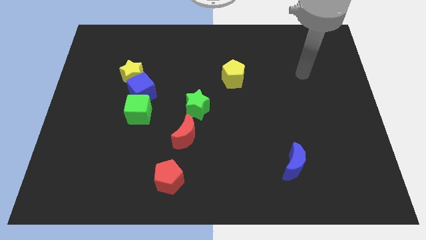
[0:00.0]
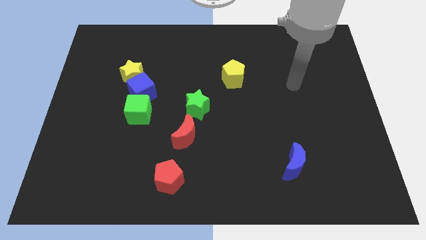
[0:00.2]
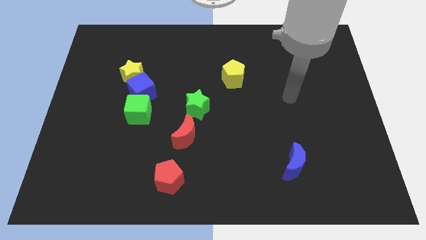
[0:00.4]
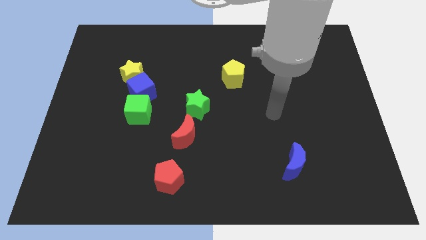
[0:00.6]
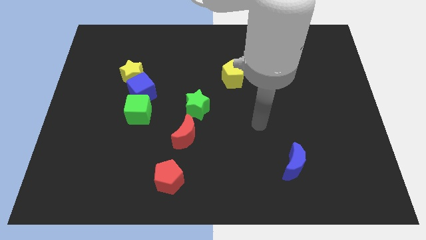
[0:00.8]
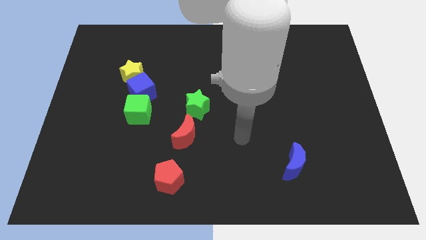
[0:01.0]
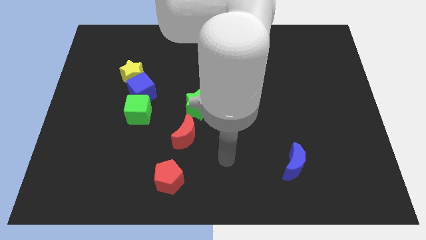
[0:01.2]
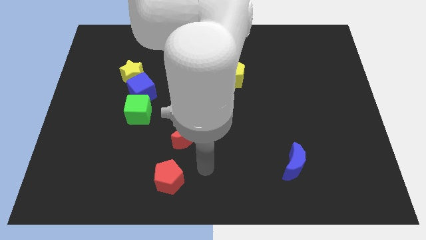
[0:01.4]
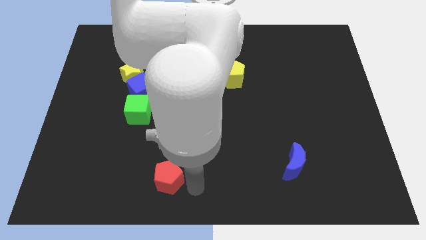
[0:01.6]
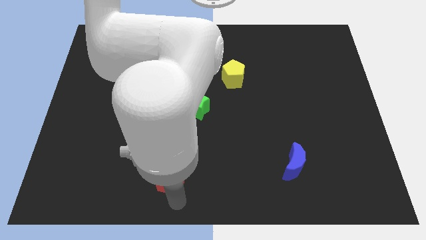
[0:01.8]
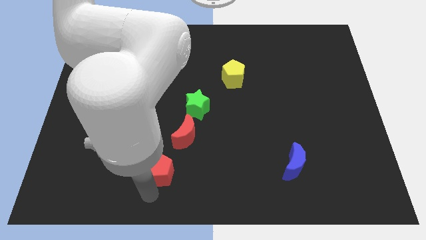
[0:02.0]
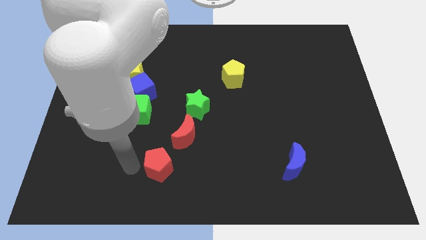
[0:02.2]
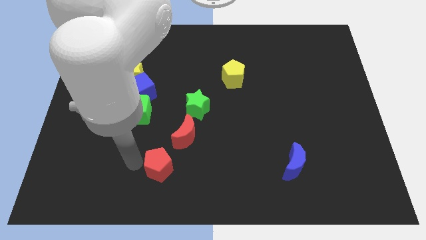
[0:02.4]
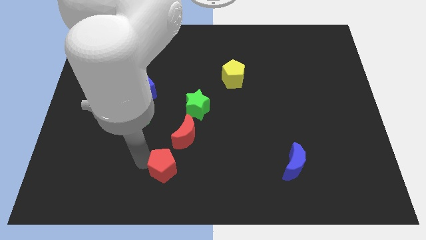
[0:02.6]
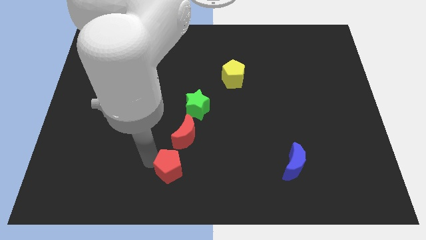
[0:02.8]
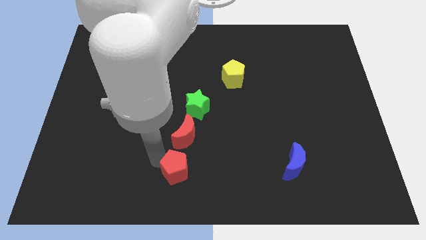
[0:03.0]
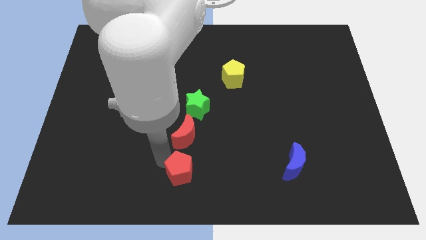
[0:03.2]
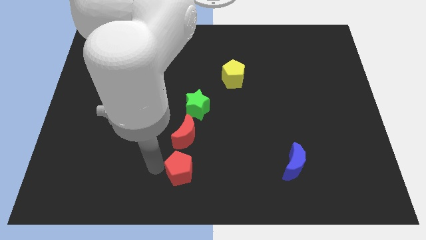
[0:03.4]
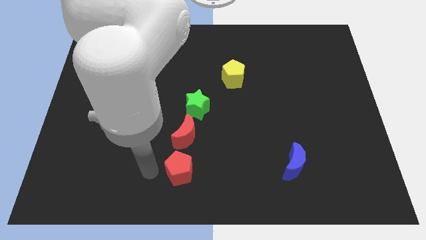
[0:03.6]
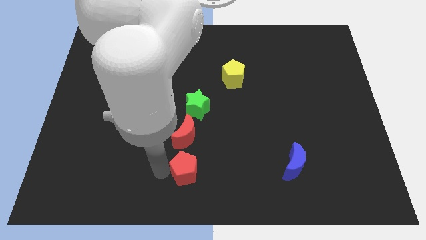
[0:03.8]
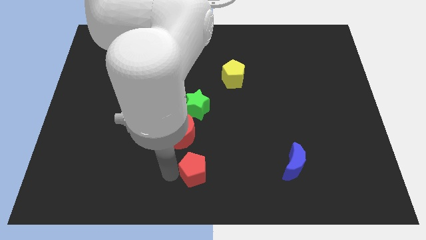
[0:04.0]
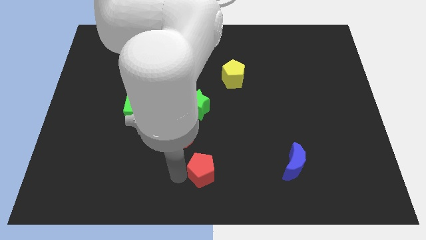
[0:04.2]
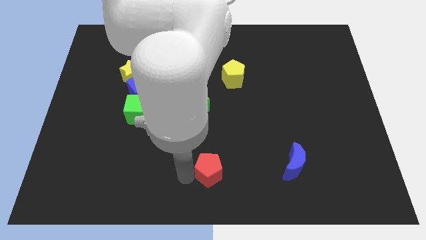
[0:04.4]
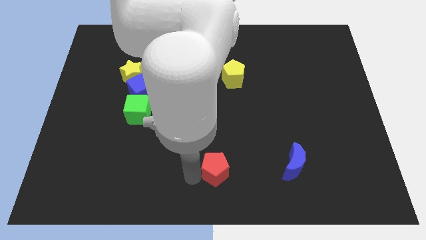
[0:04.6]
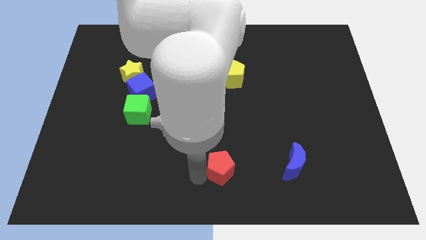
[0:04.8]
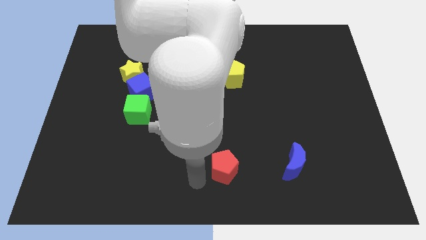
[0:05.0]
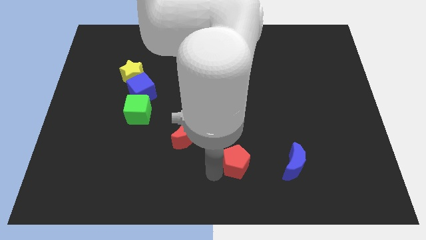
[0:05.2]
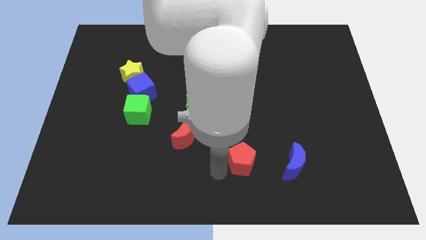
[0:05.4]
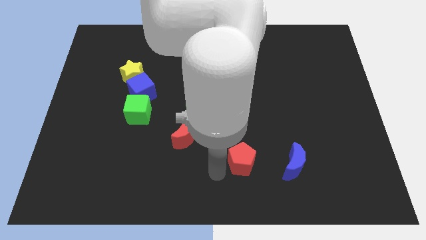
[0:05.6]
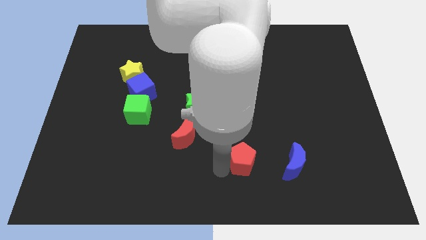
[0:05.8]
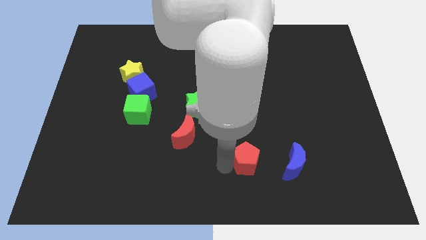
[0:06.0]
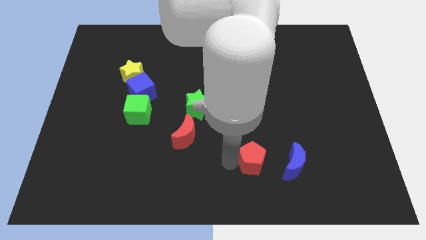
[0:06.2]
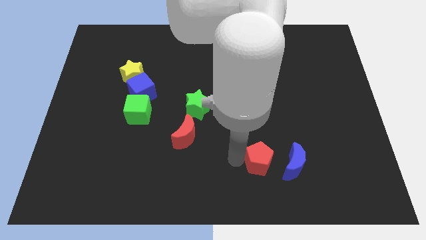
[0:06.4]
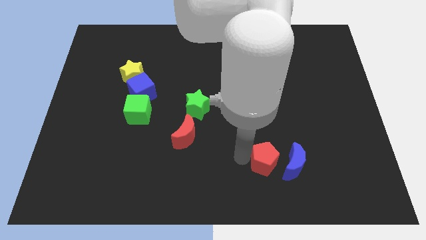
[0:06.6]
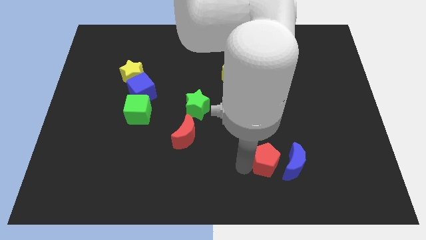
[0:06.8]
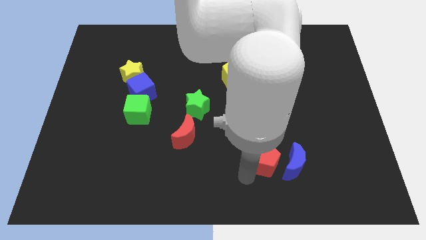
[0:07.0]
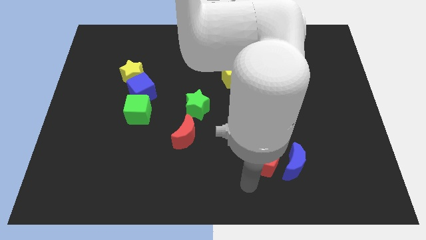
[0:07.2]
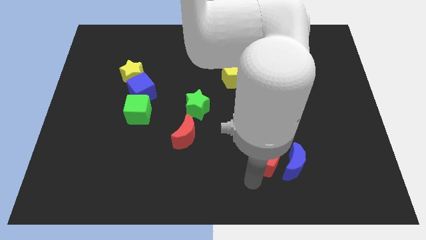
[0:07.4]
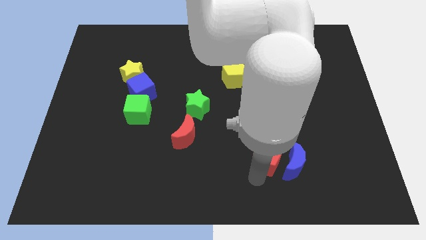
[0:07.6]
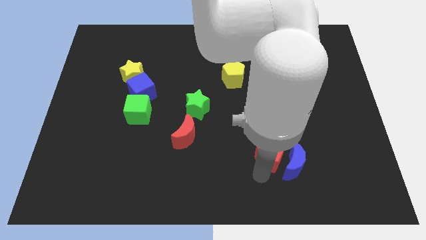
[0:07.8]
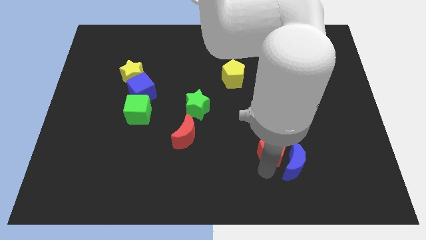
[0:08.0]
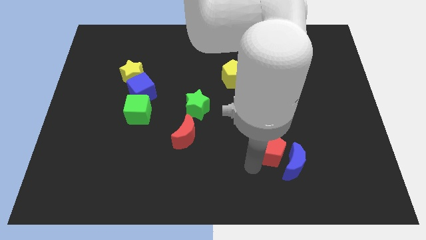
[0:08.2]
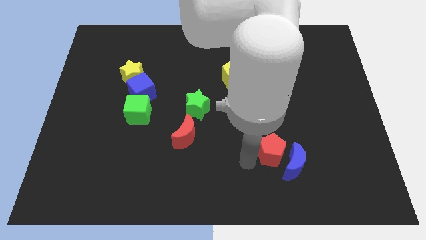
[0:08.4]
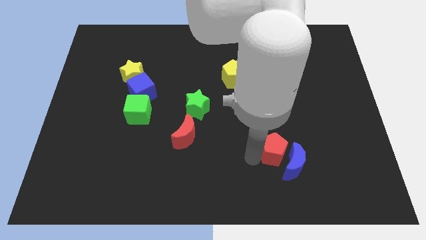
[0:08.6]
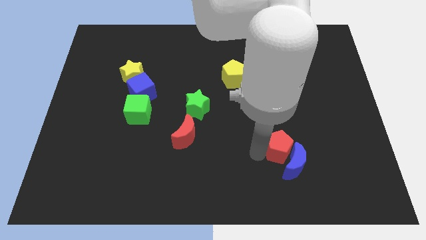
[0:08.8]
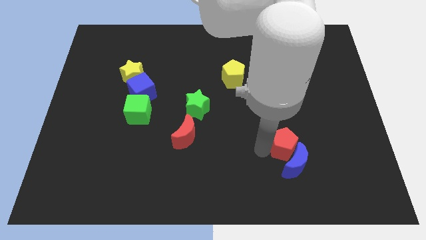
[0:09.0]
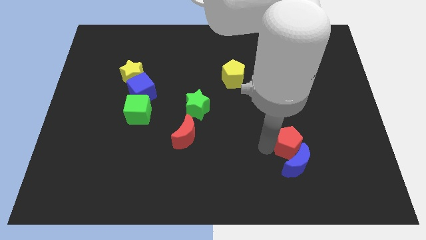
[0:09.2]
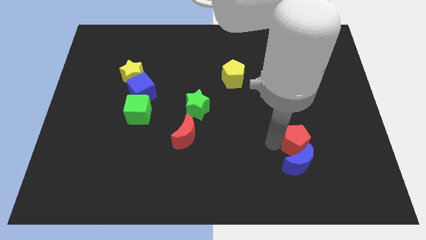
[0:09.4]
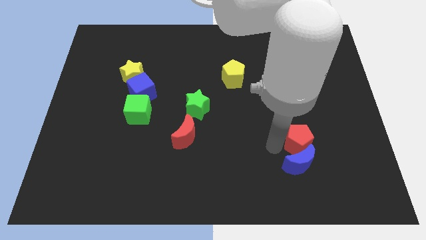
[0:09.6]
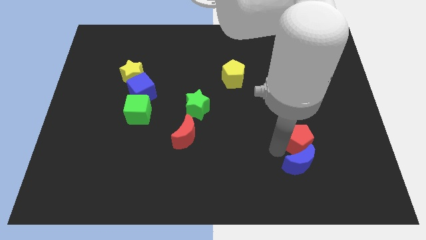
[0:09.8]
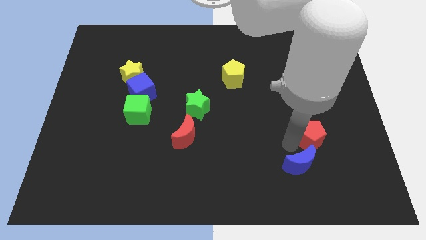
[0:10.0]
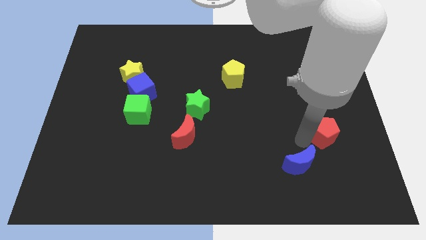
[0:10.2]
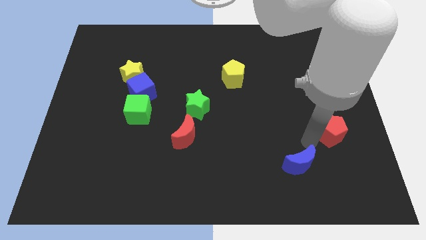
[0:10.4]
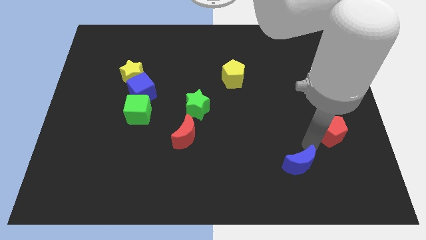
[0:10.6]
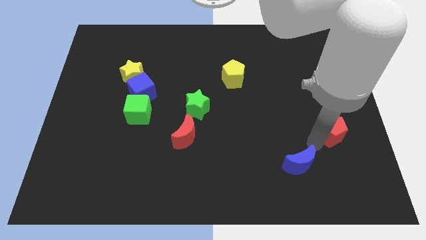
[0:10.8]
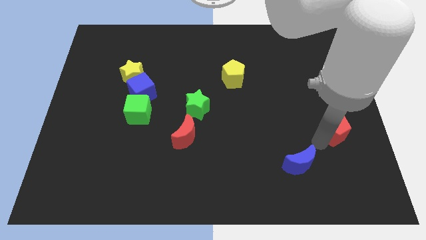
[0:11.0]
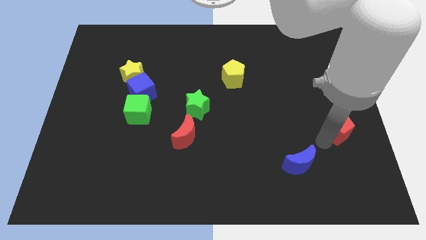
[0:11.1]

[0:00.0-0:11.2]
slide the red pentagon to the right side of the board

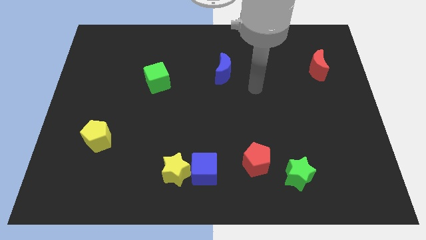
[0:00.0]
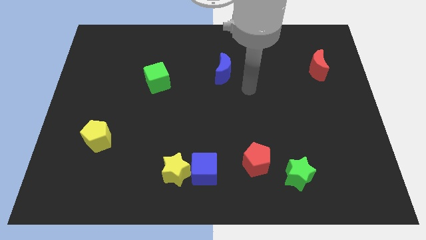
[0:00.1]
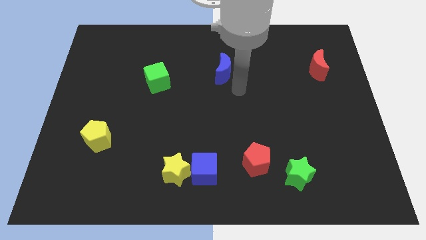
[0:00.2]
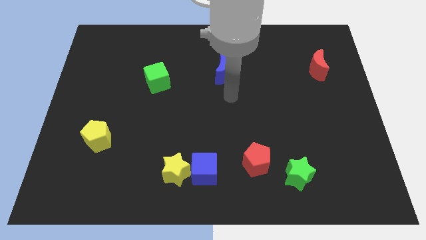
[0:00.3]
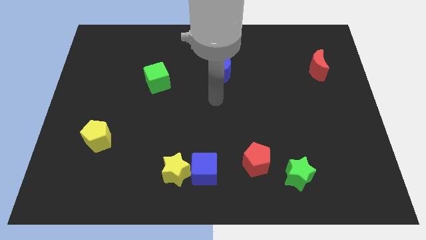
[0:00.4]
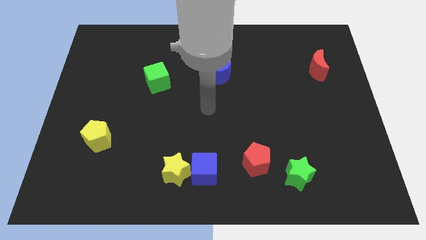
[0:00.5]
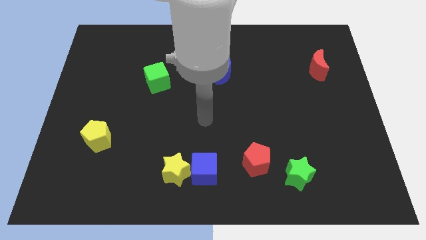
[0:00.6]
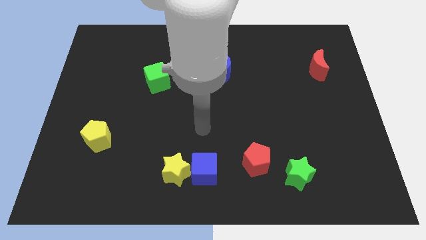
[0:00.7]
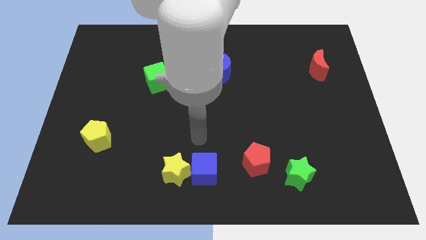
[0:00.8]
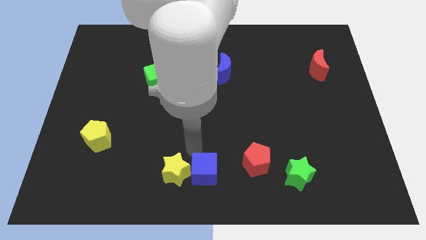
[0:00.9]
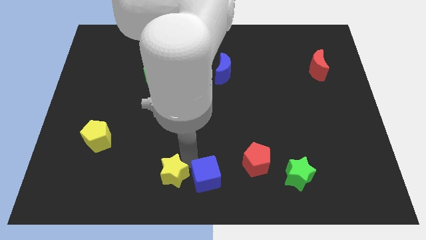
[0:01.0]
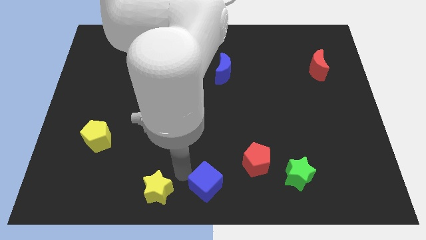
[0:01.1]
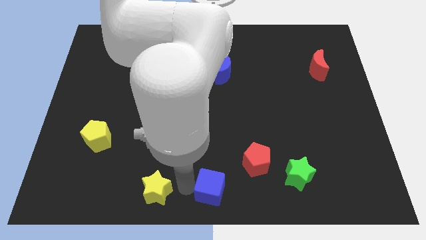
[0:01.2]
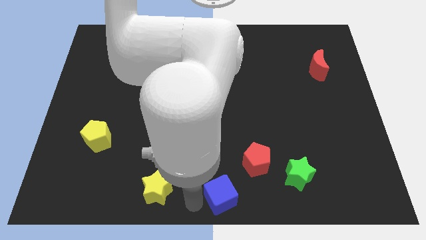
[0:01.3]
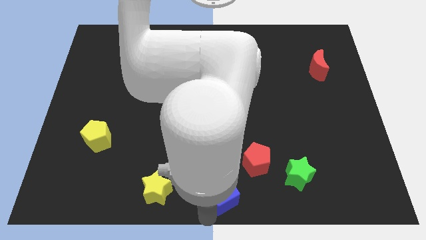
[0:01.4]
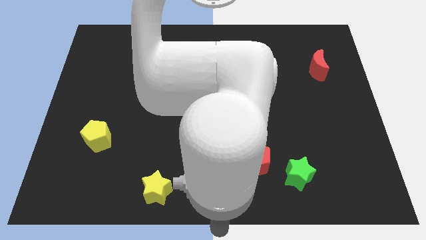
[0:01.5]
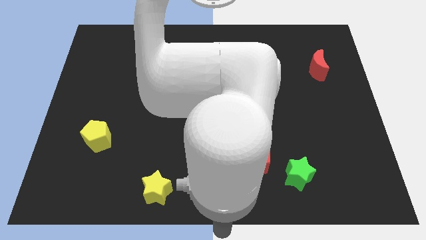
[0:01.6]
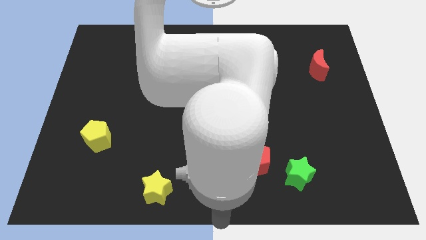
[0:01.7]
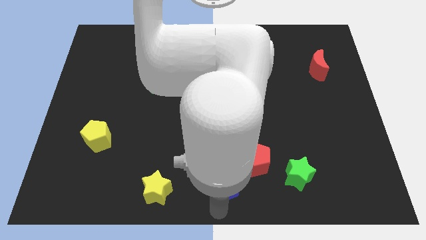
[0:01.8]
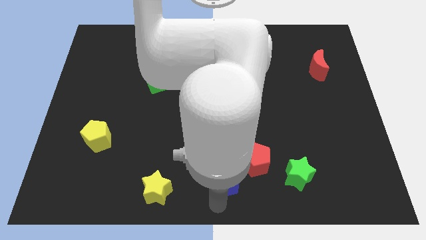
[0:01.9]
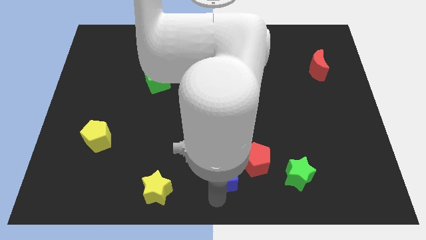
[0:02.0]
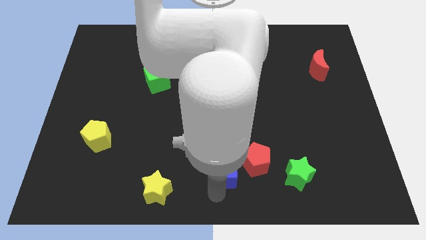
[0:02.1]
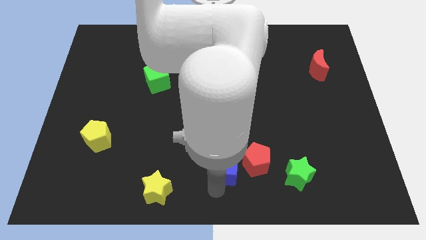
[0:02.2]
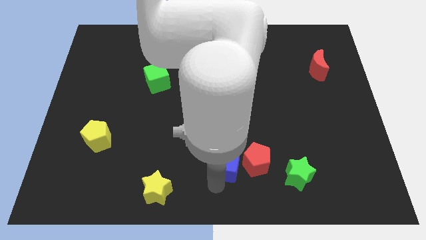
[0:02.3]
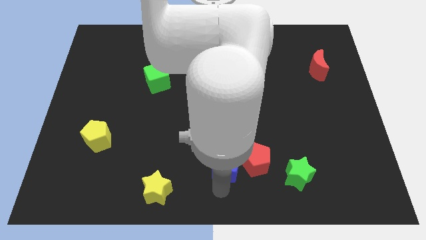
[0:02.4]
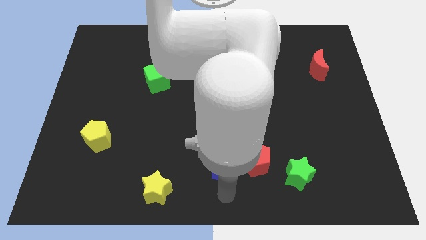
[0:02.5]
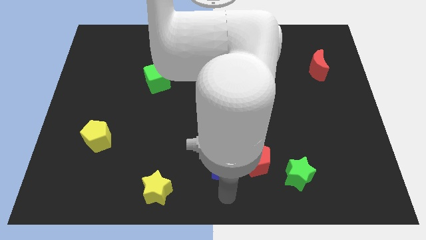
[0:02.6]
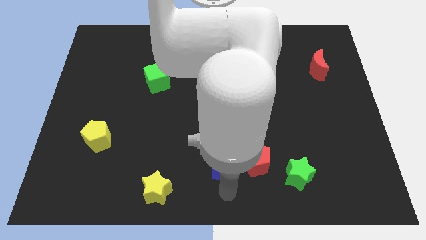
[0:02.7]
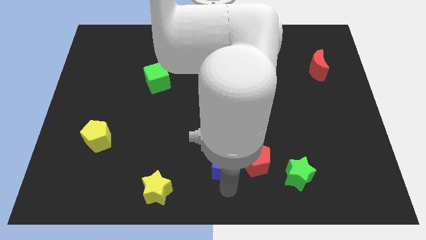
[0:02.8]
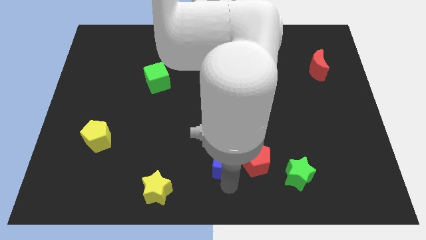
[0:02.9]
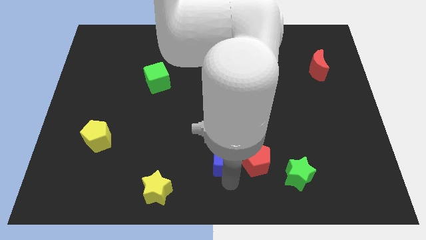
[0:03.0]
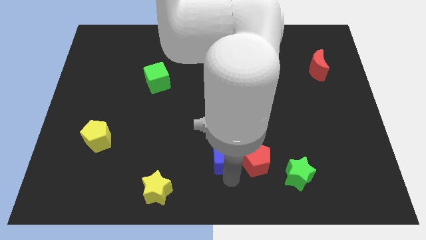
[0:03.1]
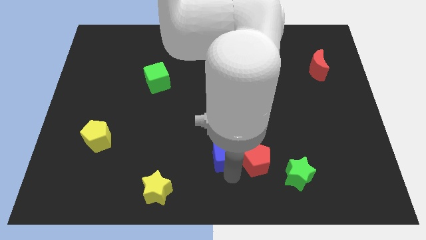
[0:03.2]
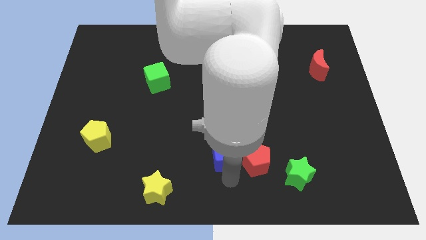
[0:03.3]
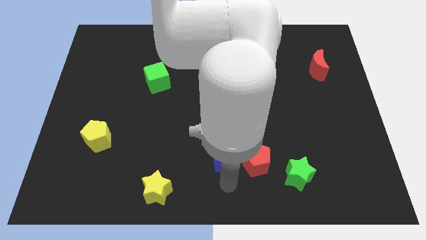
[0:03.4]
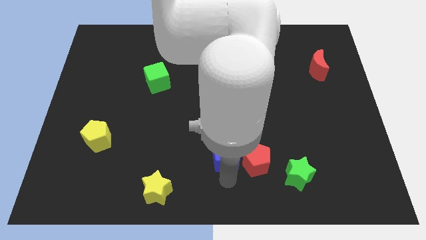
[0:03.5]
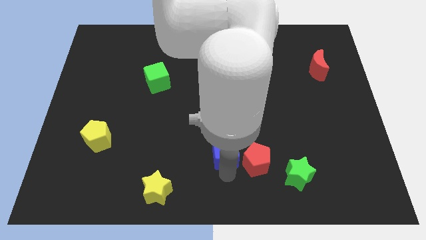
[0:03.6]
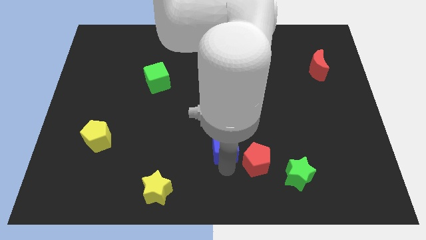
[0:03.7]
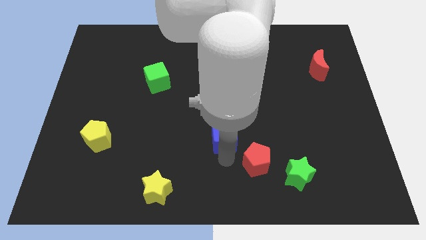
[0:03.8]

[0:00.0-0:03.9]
push the blue cube to the middle of the board
